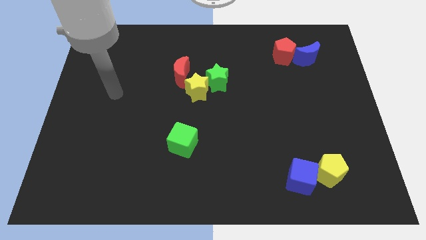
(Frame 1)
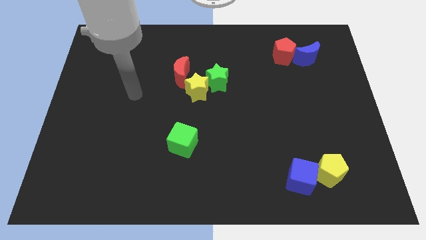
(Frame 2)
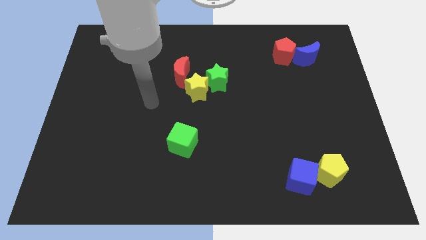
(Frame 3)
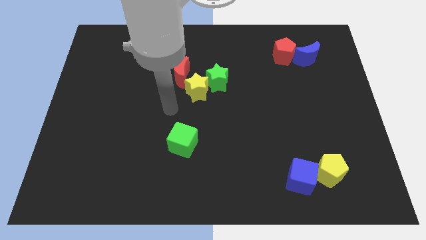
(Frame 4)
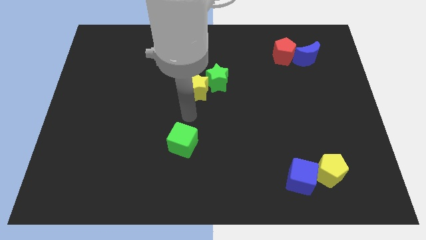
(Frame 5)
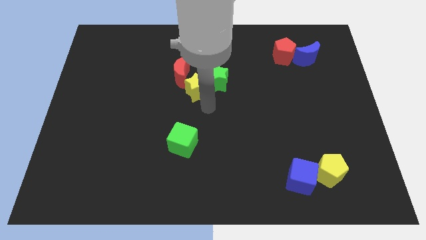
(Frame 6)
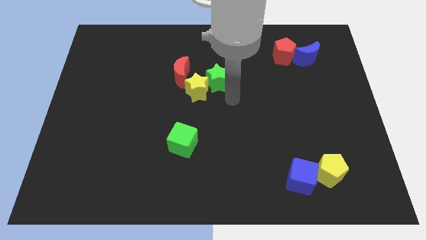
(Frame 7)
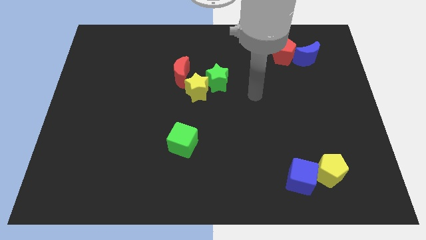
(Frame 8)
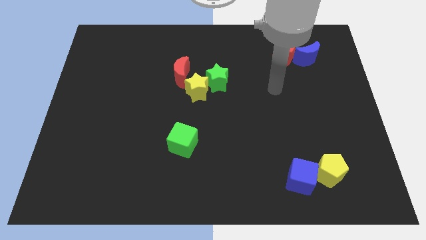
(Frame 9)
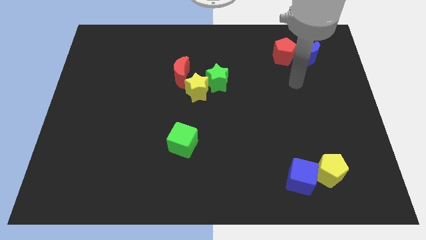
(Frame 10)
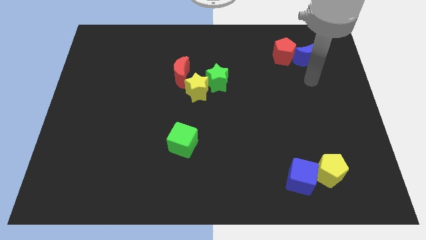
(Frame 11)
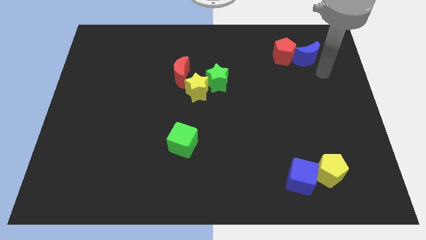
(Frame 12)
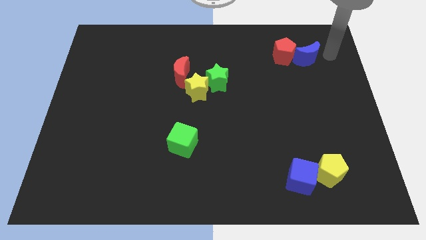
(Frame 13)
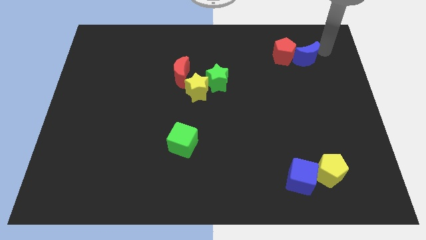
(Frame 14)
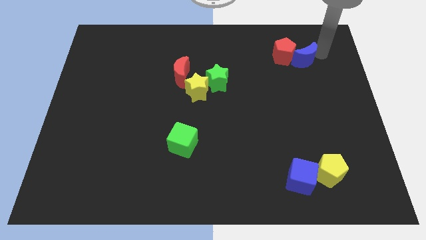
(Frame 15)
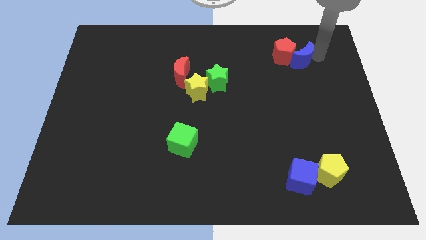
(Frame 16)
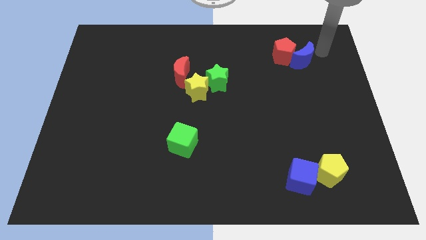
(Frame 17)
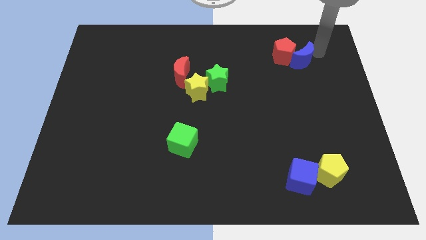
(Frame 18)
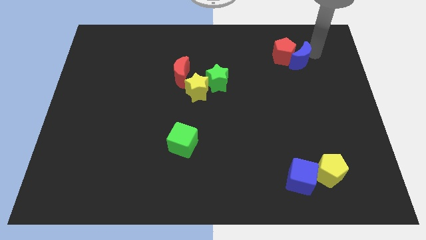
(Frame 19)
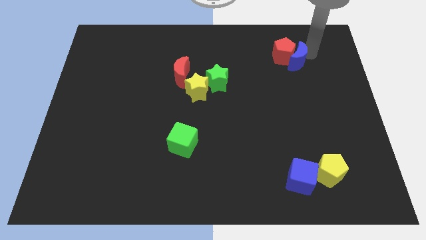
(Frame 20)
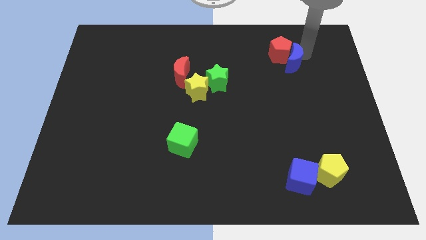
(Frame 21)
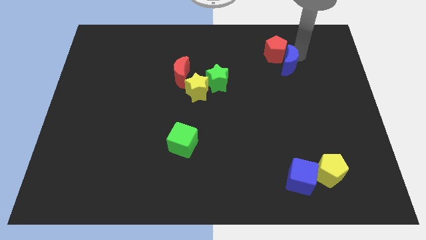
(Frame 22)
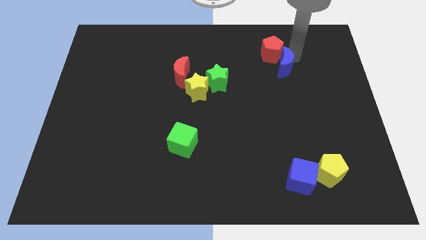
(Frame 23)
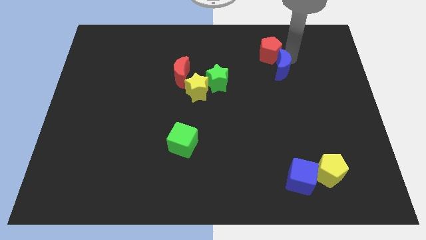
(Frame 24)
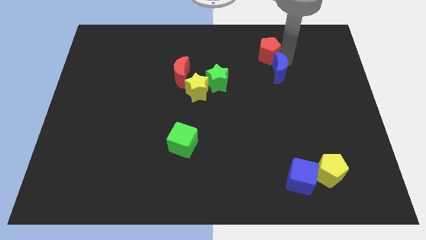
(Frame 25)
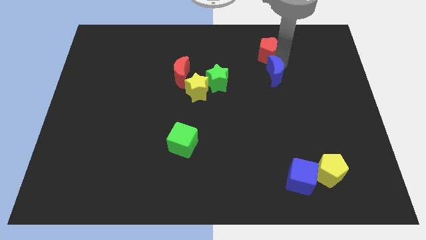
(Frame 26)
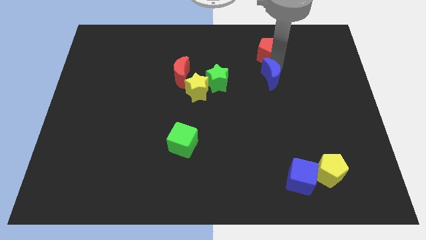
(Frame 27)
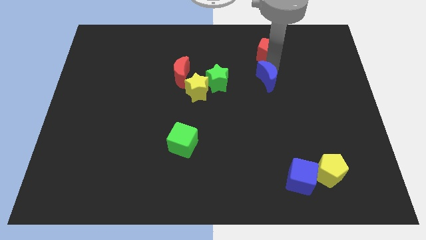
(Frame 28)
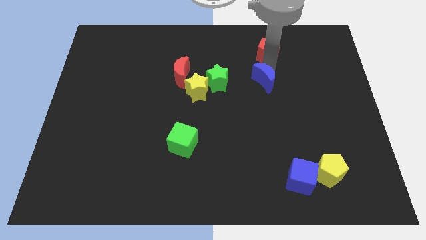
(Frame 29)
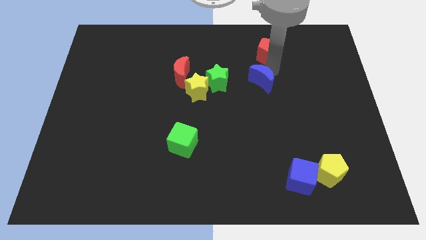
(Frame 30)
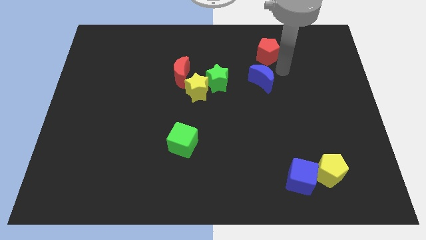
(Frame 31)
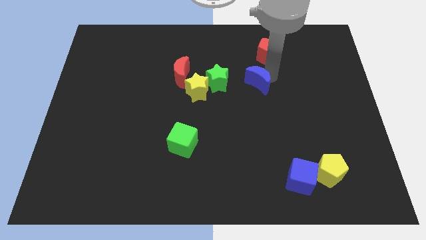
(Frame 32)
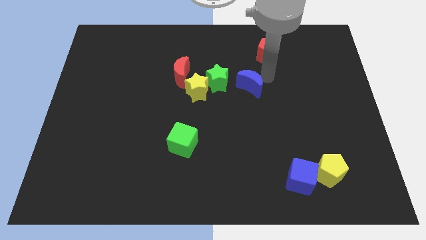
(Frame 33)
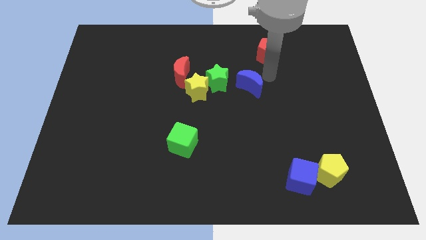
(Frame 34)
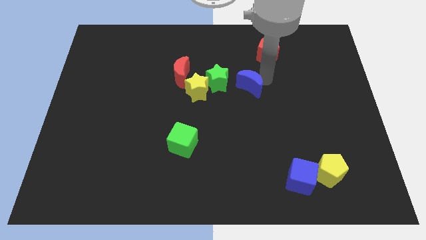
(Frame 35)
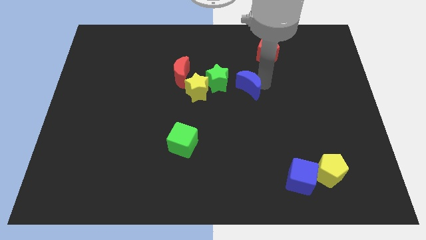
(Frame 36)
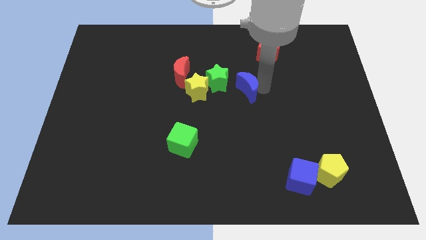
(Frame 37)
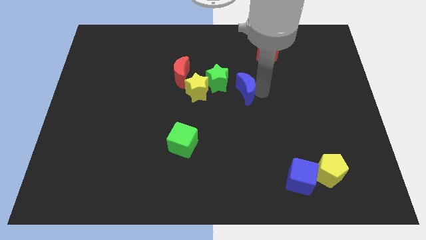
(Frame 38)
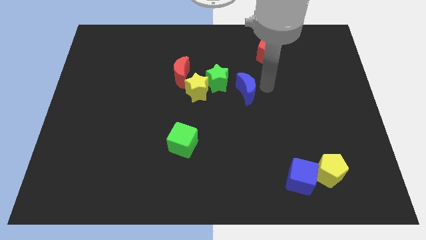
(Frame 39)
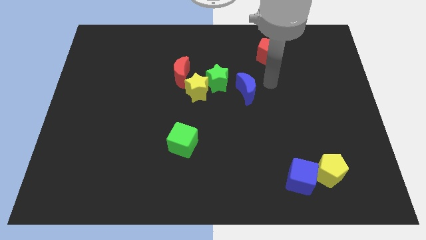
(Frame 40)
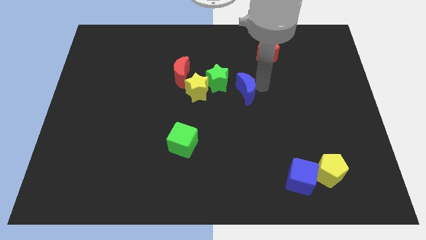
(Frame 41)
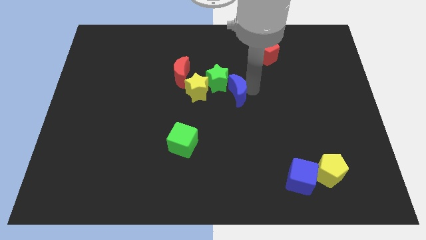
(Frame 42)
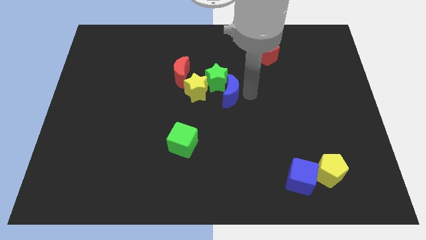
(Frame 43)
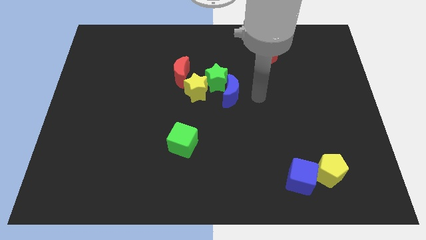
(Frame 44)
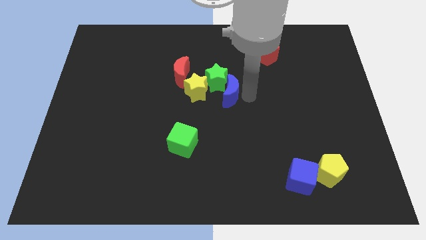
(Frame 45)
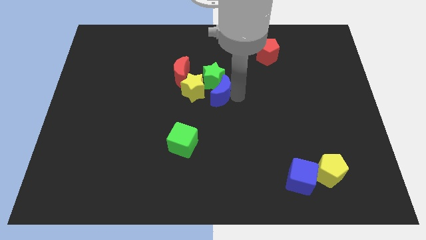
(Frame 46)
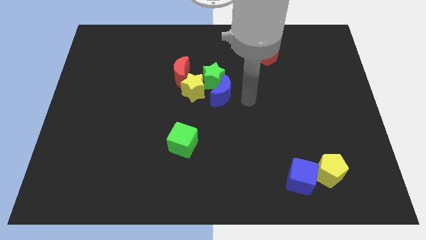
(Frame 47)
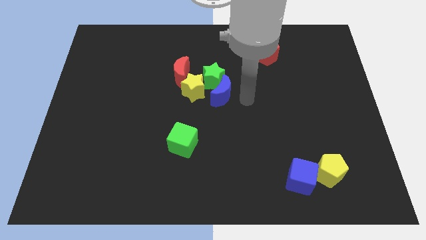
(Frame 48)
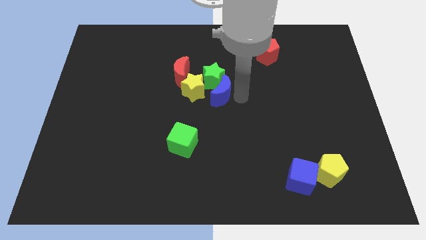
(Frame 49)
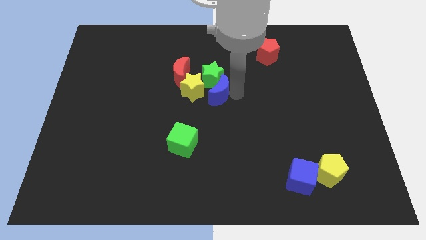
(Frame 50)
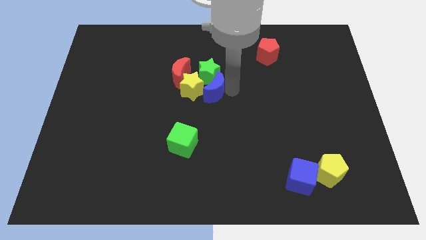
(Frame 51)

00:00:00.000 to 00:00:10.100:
push the blue moon next to the yellow star

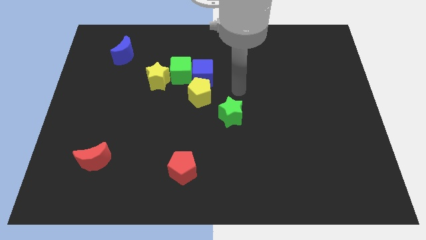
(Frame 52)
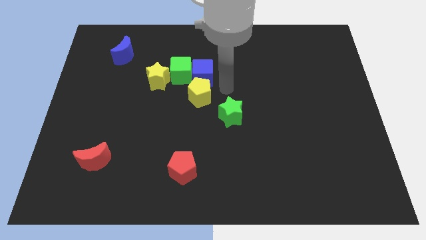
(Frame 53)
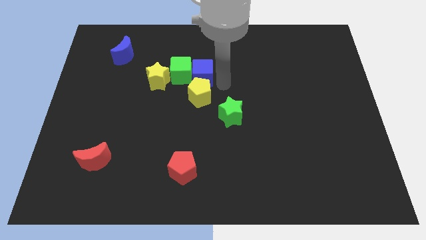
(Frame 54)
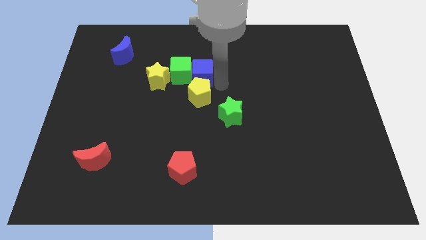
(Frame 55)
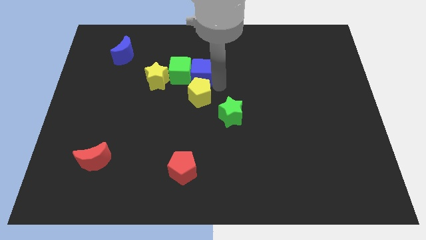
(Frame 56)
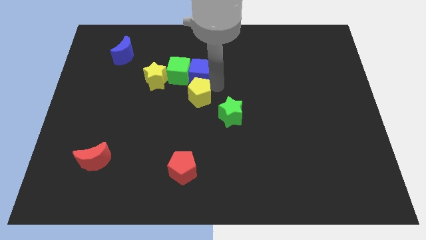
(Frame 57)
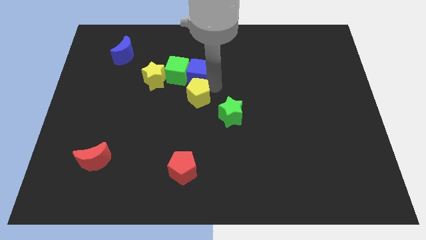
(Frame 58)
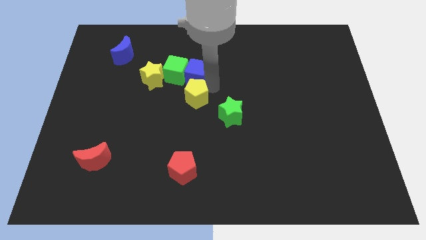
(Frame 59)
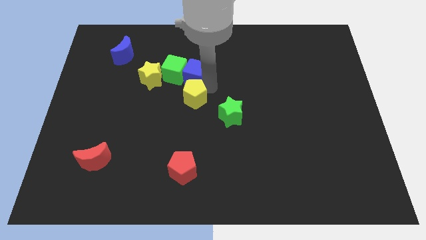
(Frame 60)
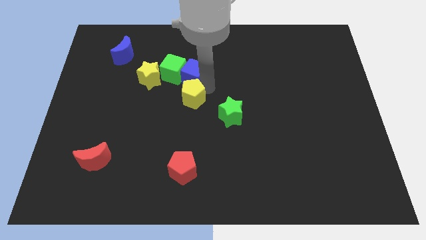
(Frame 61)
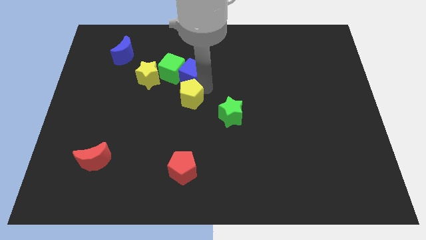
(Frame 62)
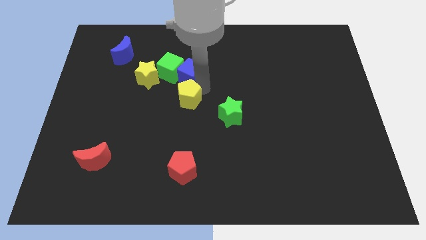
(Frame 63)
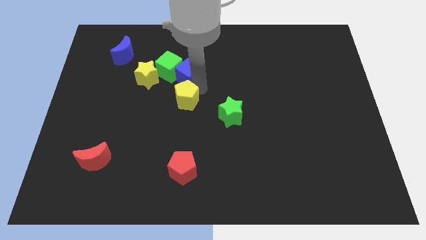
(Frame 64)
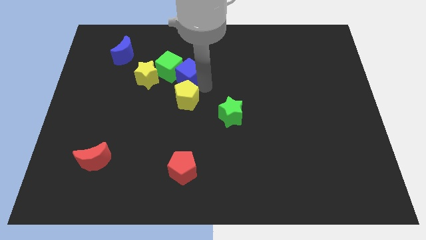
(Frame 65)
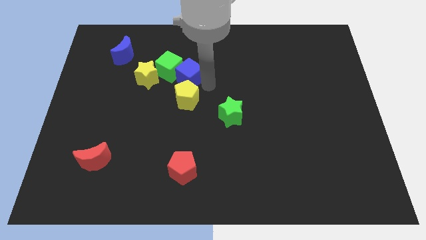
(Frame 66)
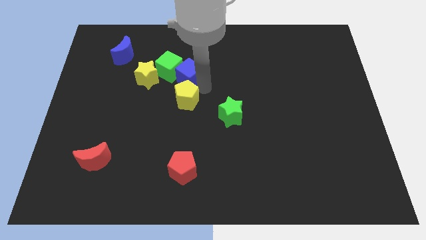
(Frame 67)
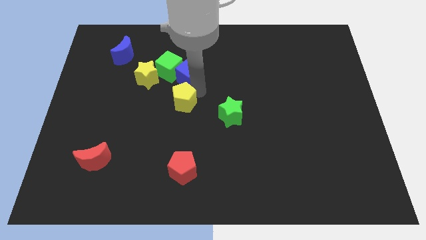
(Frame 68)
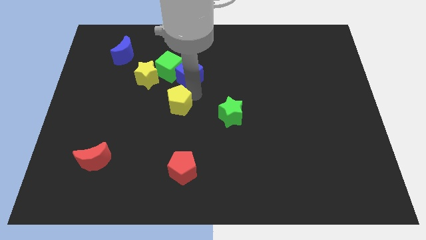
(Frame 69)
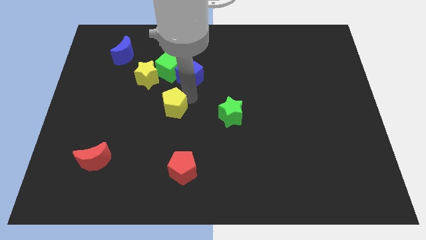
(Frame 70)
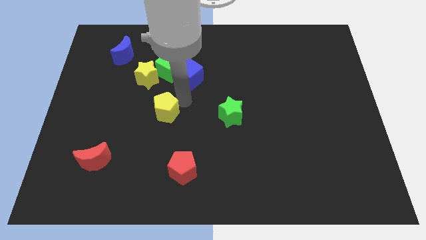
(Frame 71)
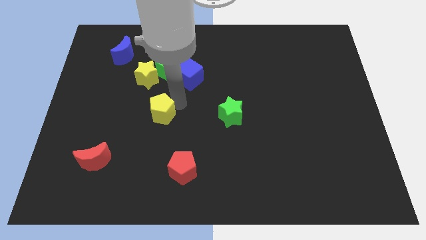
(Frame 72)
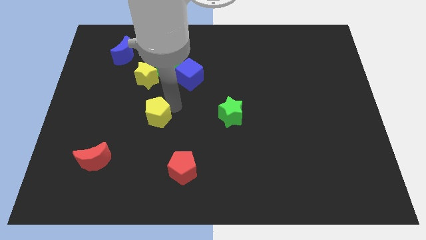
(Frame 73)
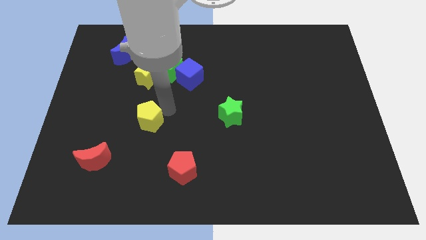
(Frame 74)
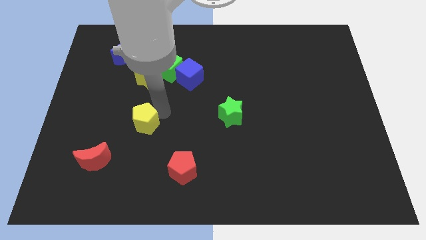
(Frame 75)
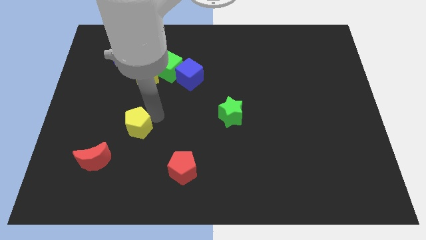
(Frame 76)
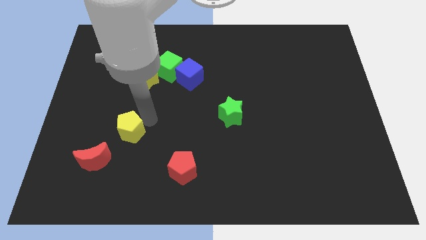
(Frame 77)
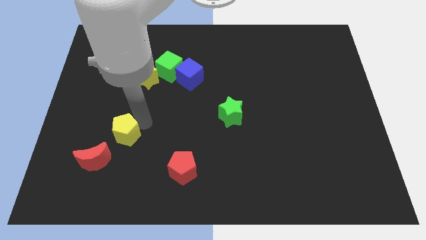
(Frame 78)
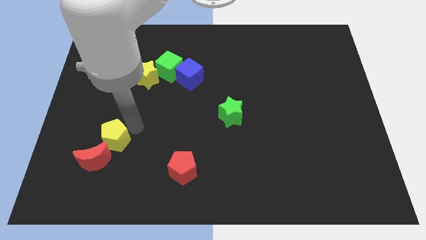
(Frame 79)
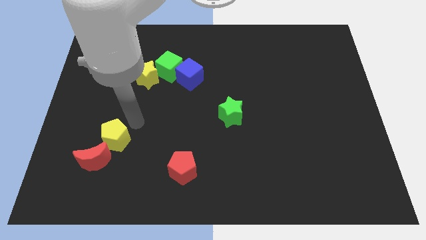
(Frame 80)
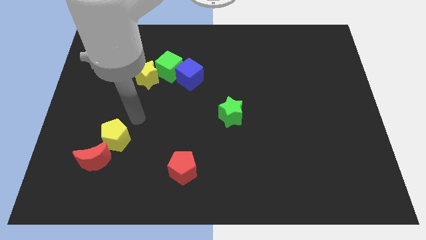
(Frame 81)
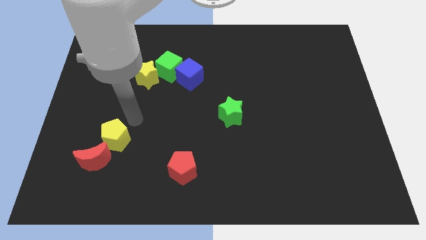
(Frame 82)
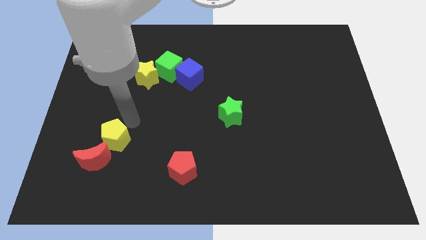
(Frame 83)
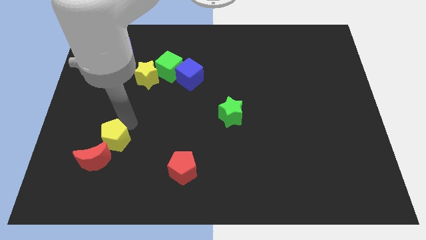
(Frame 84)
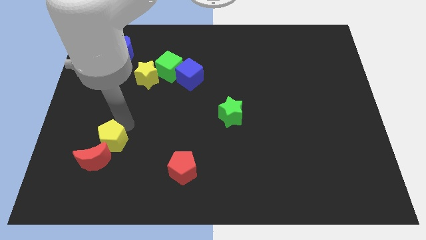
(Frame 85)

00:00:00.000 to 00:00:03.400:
put the yellow pentagon towards the red moon
